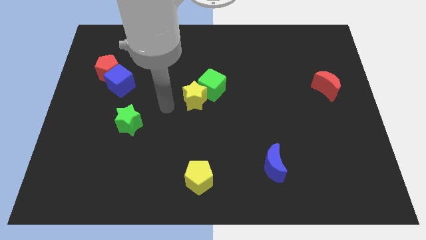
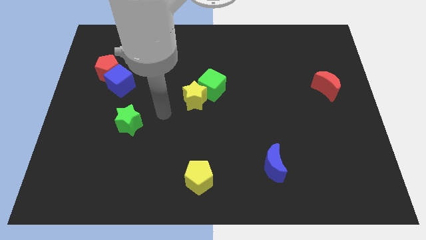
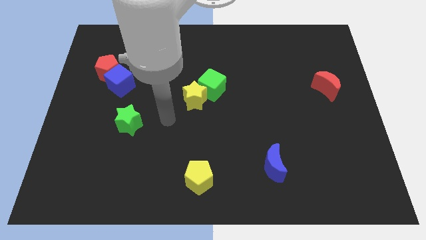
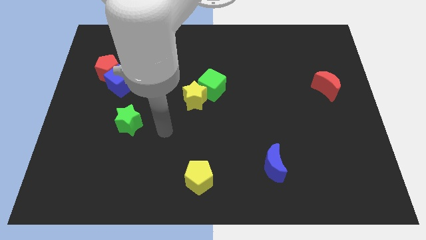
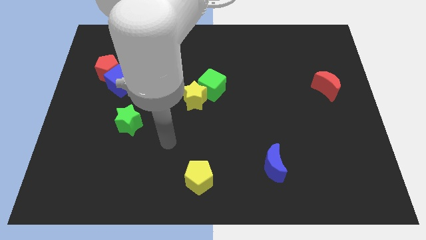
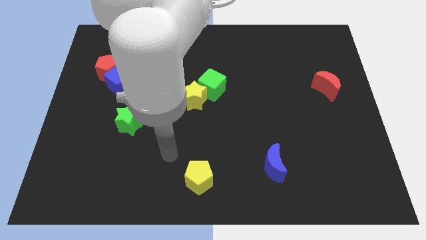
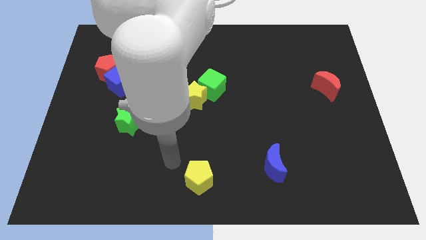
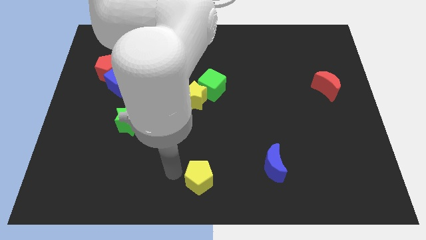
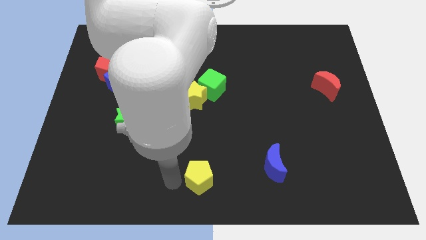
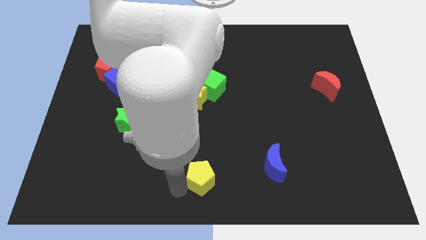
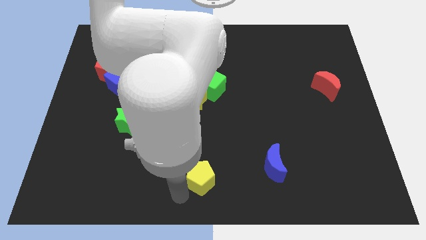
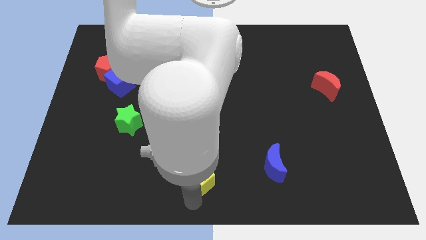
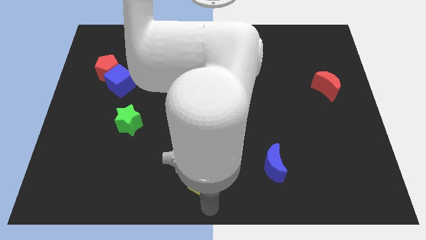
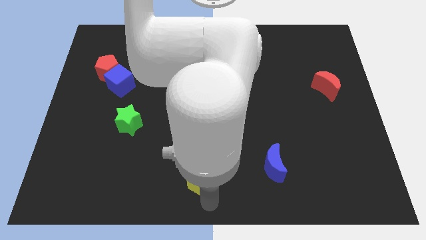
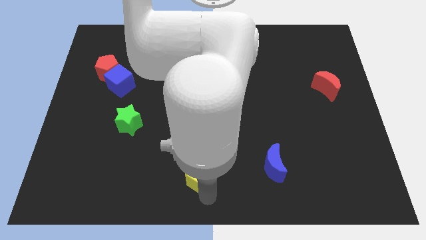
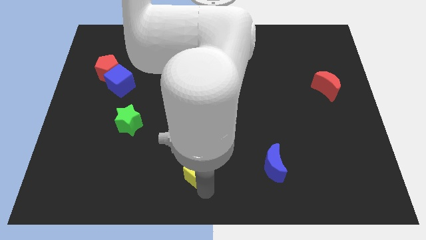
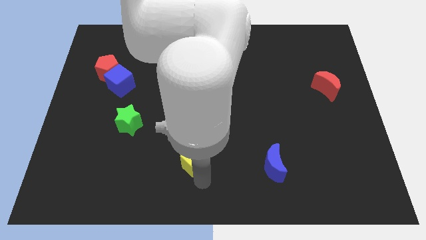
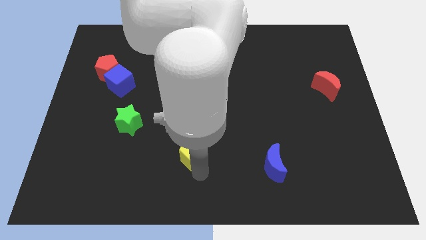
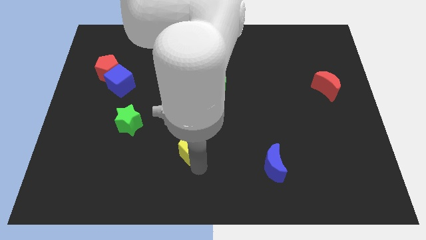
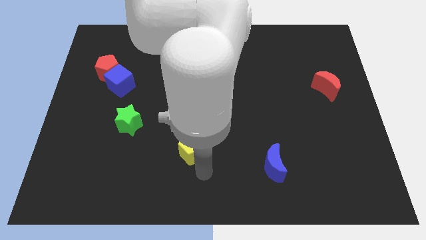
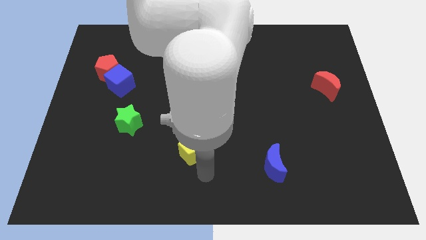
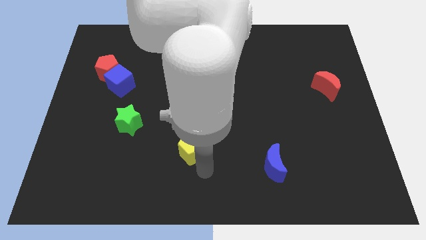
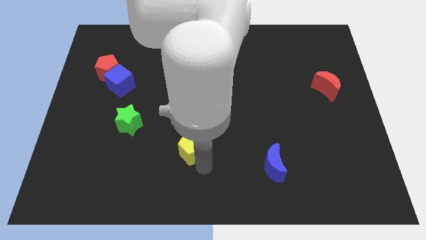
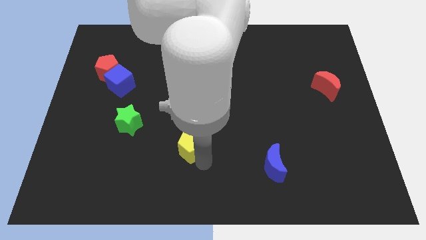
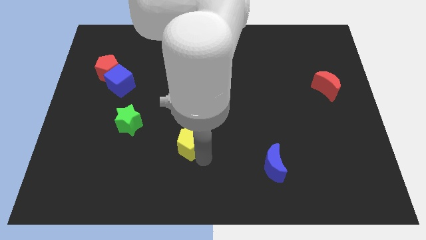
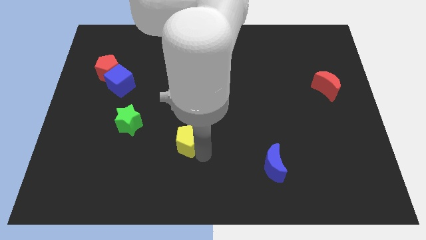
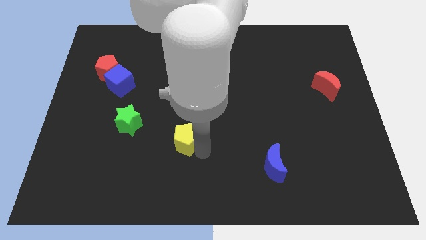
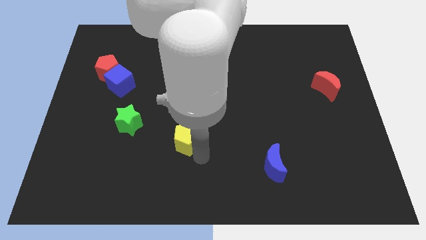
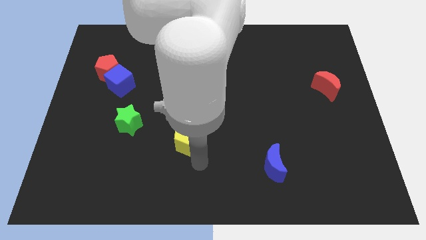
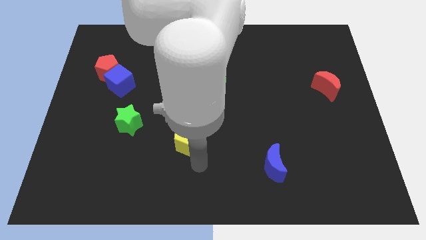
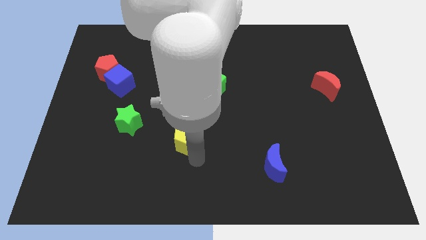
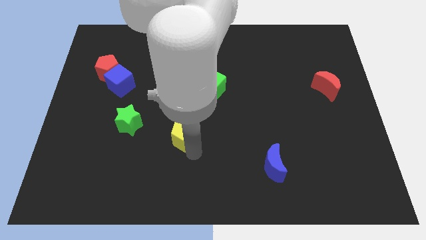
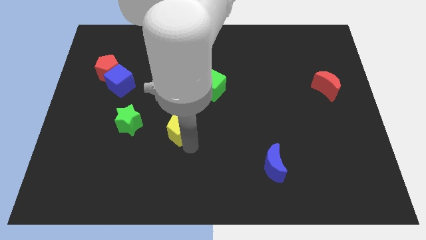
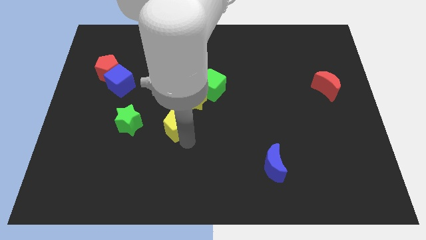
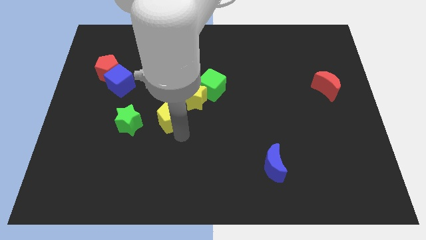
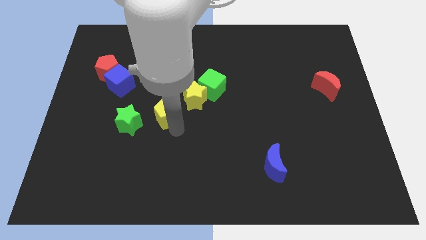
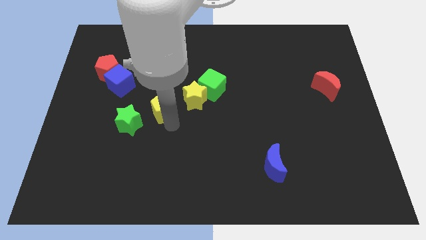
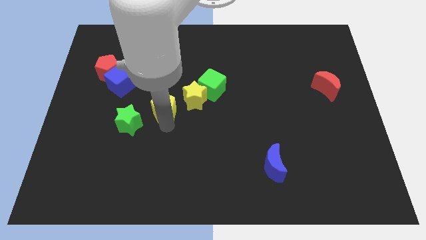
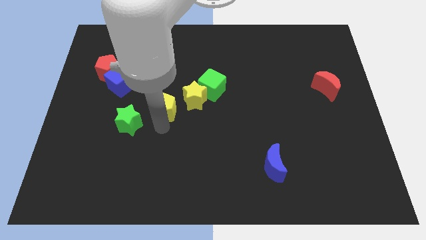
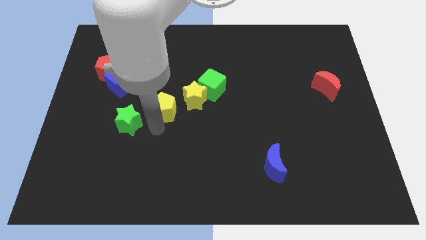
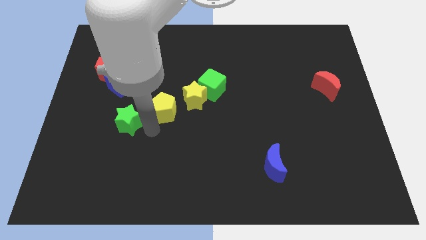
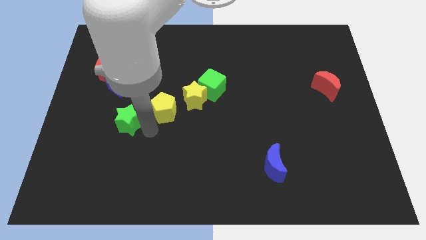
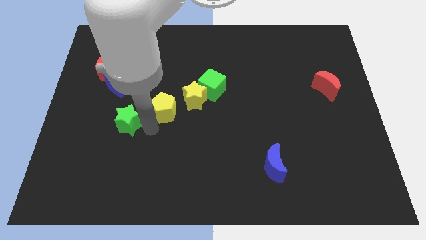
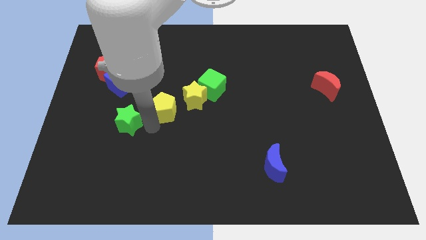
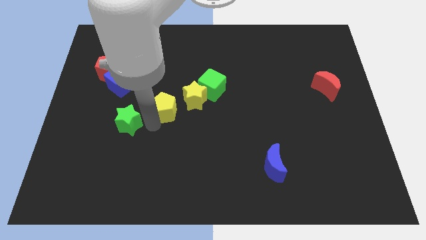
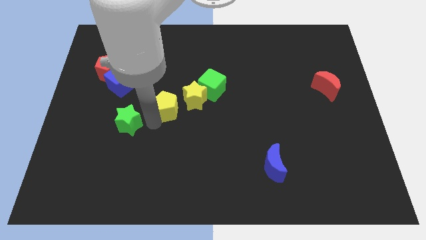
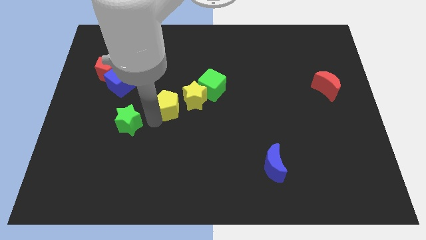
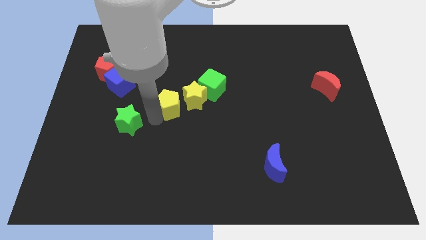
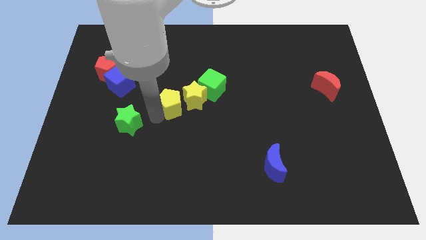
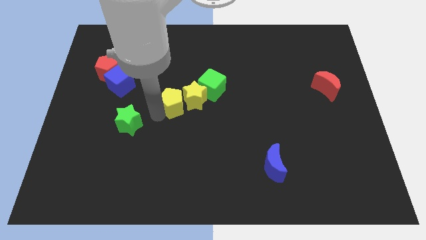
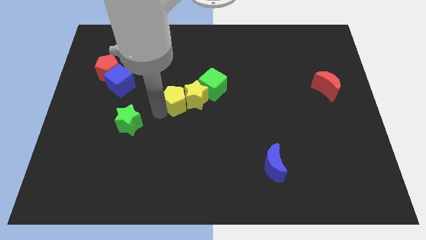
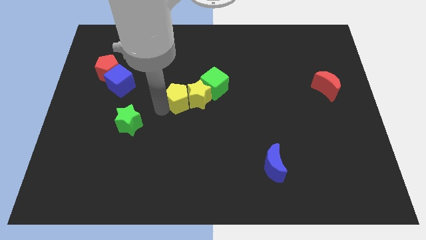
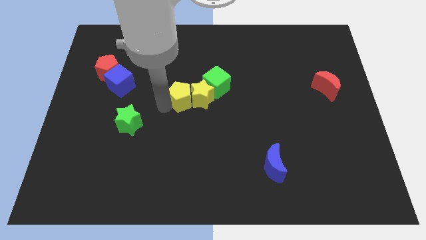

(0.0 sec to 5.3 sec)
push the yellow pentagon up

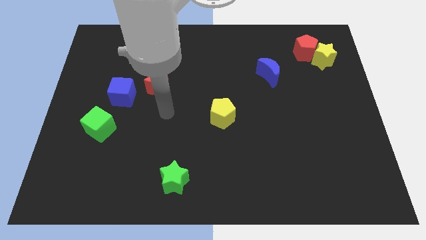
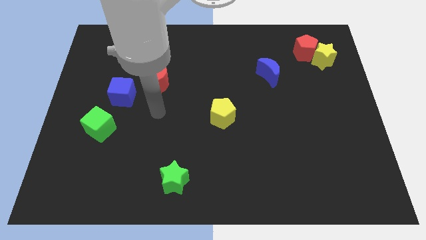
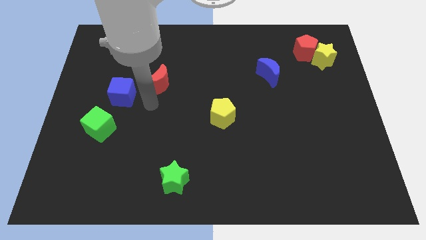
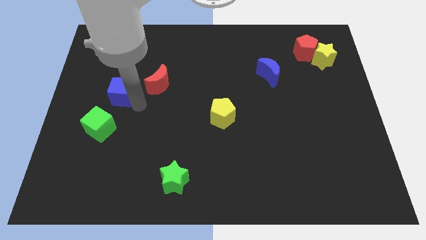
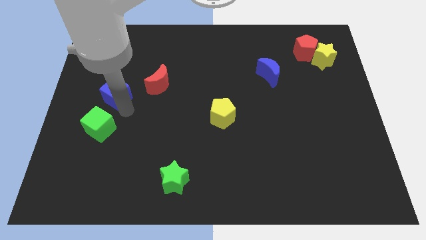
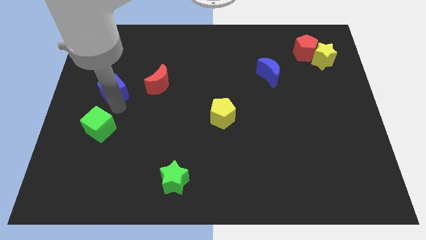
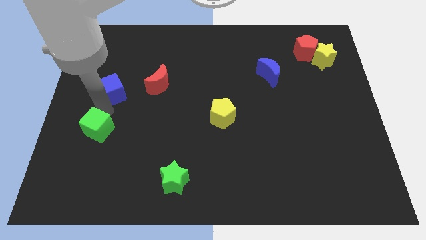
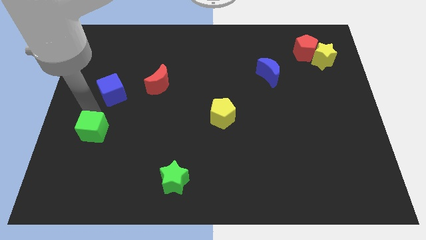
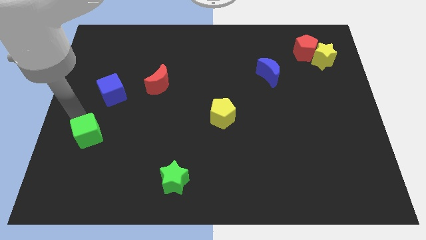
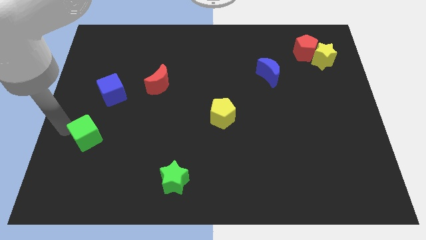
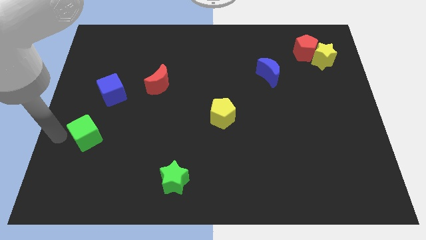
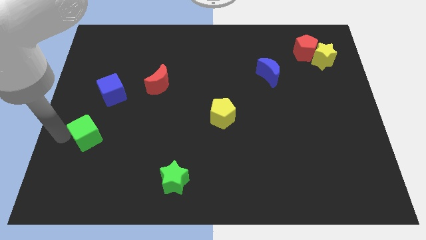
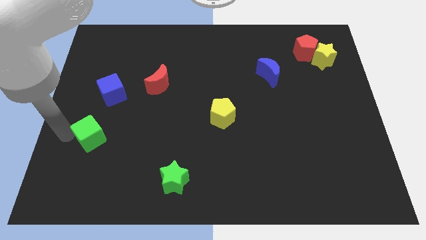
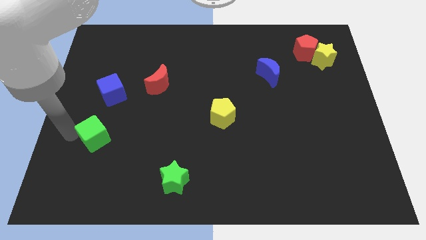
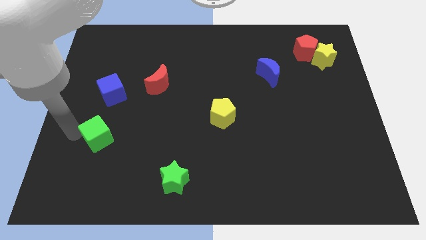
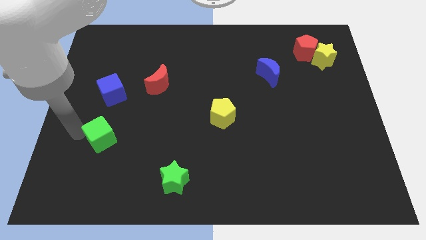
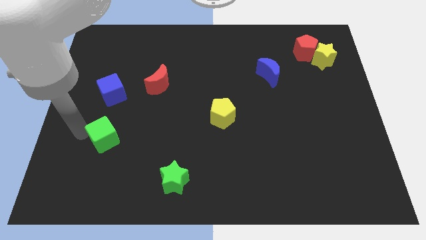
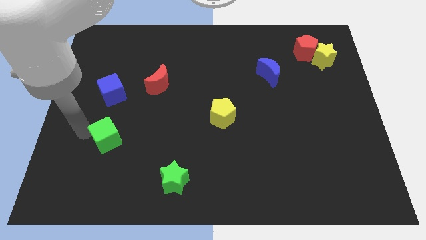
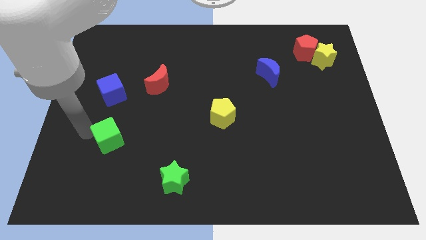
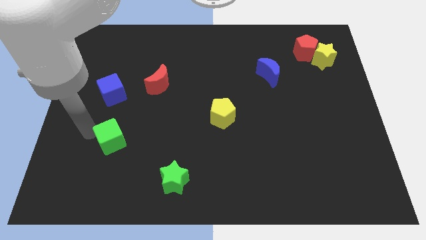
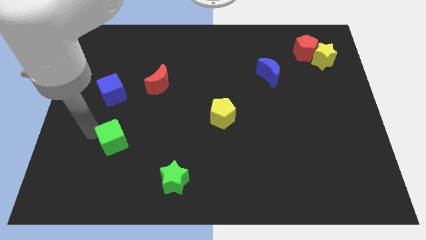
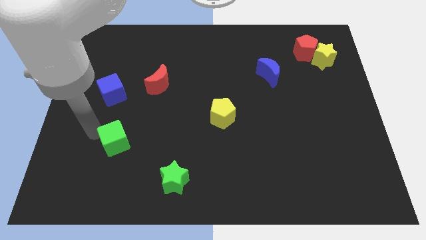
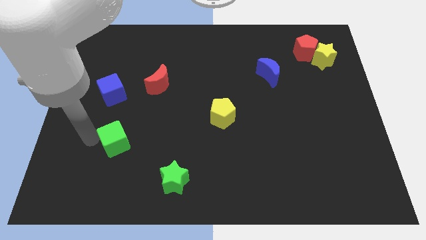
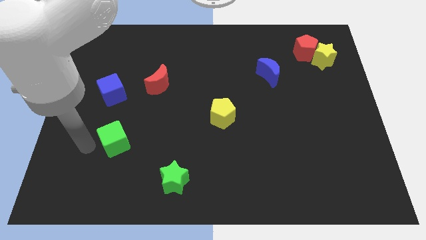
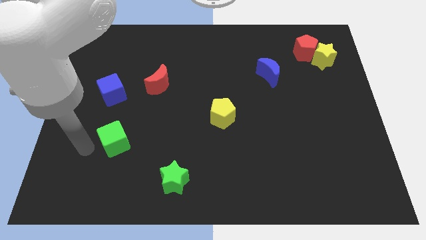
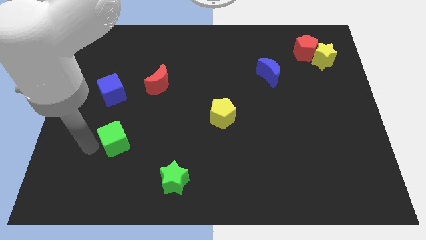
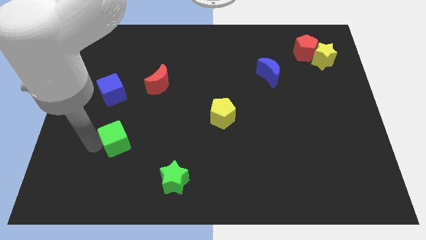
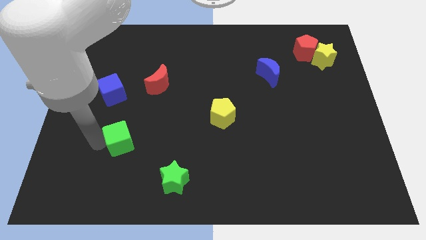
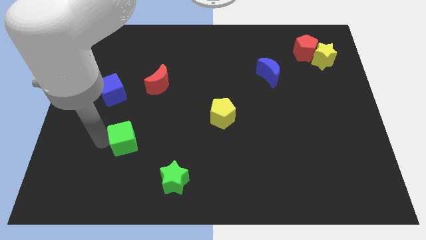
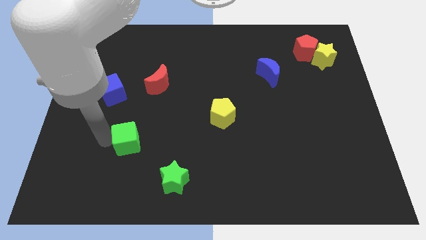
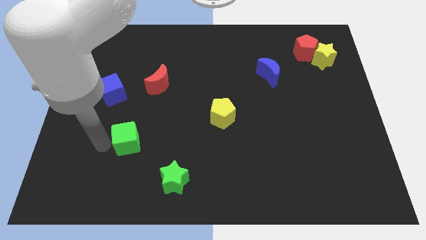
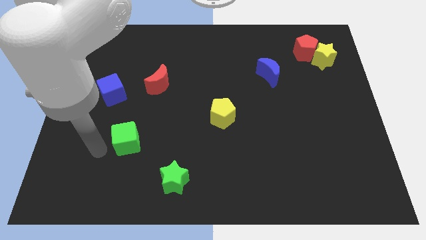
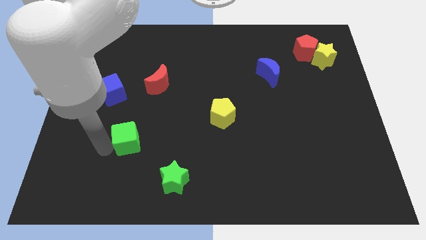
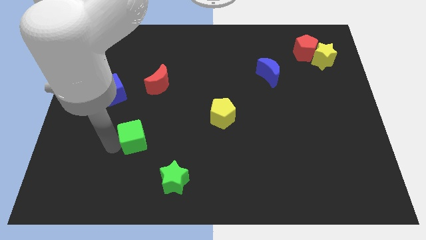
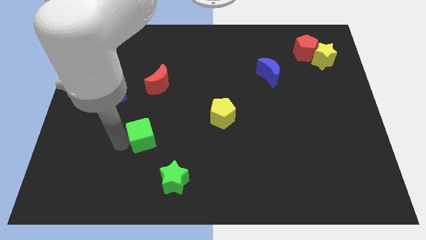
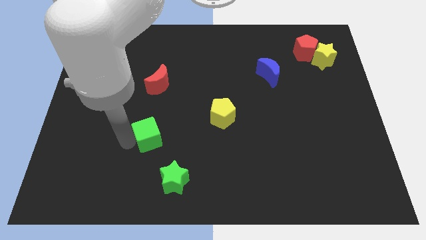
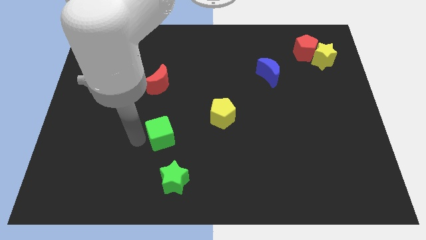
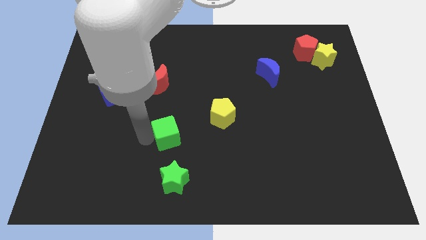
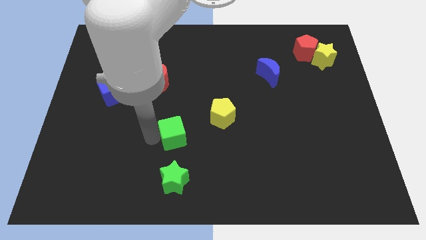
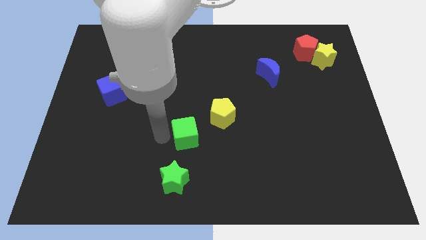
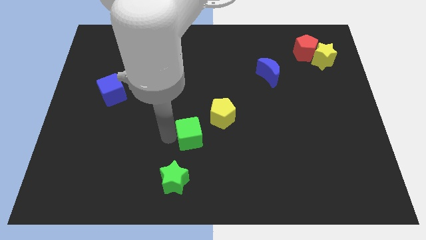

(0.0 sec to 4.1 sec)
move the green cube right
